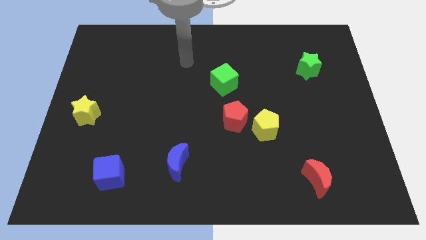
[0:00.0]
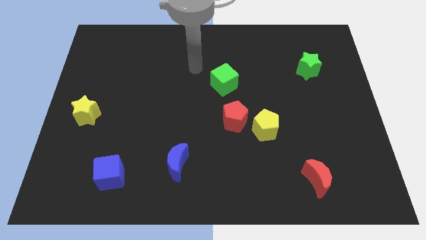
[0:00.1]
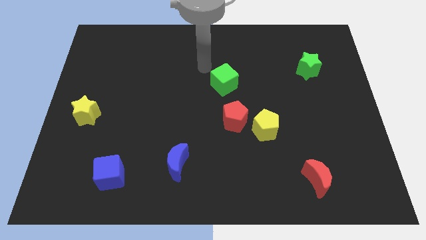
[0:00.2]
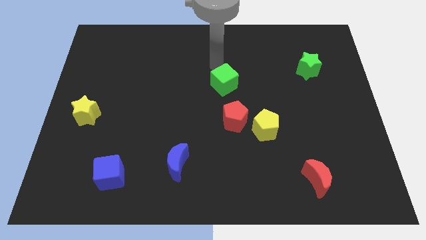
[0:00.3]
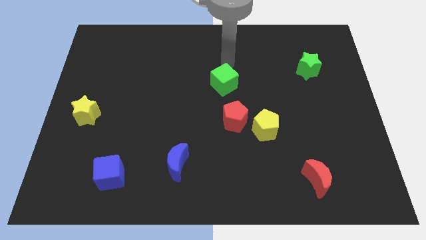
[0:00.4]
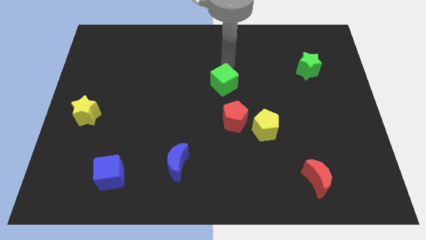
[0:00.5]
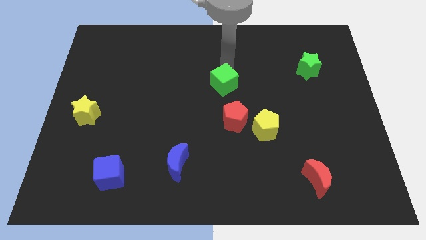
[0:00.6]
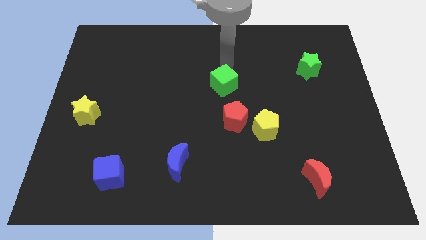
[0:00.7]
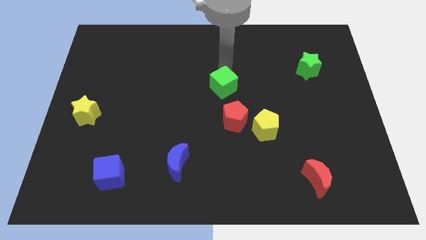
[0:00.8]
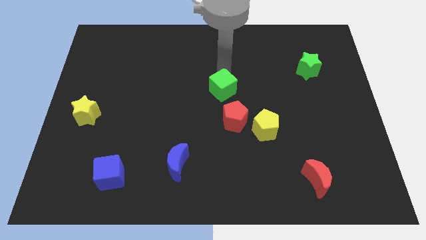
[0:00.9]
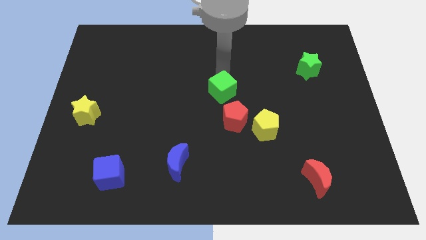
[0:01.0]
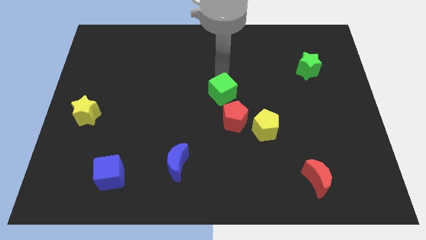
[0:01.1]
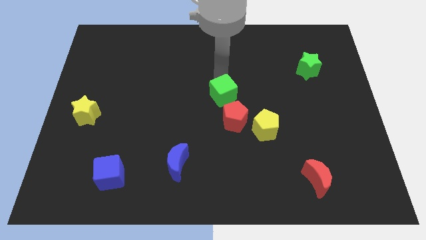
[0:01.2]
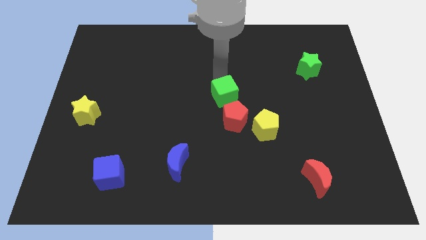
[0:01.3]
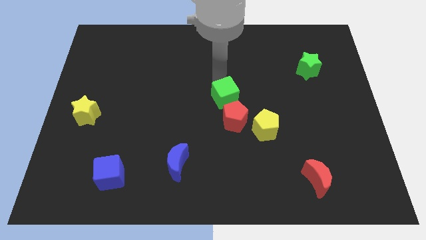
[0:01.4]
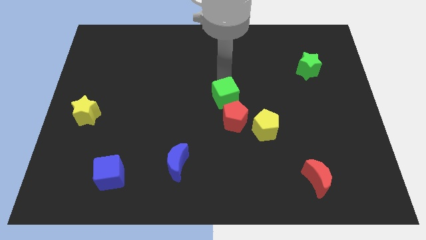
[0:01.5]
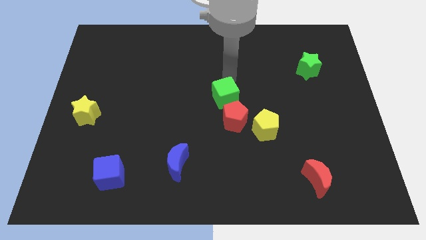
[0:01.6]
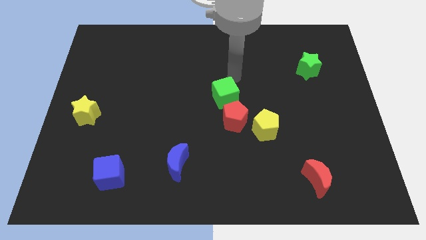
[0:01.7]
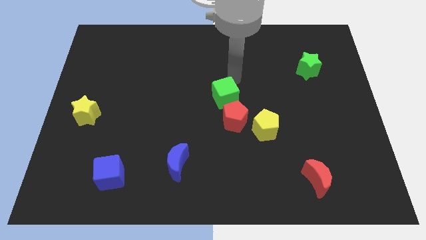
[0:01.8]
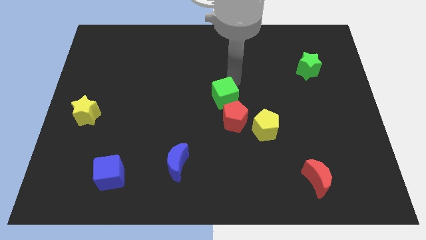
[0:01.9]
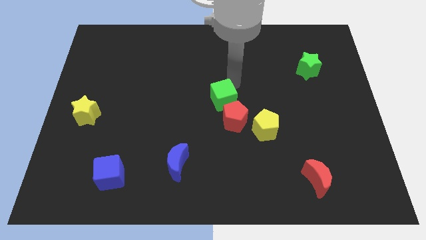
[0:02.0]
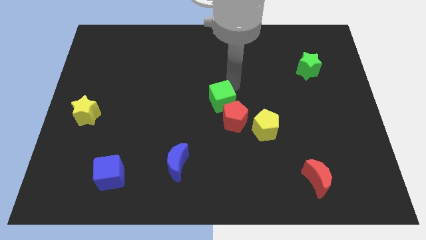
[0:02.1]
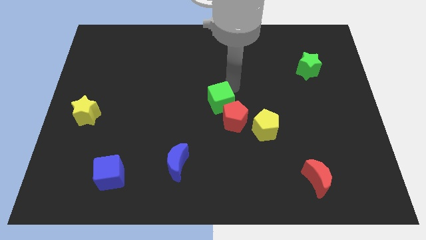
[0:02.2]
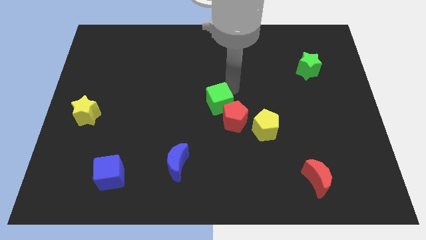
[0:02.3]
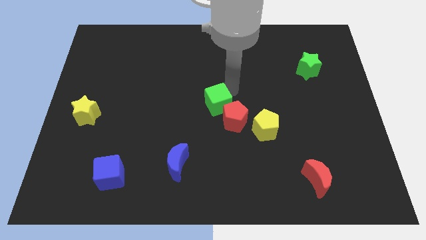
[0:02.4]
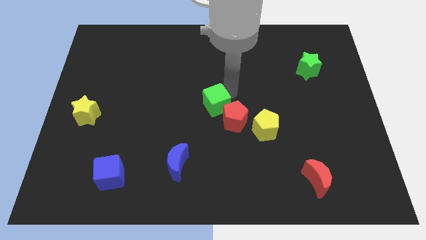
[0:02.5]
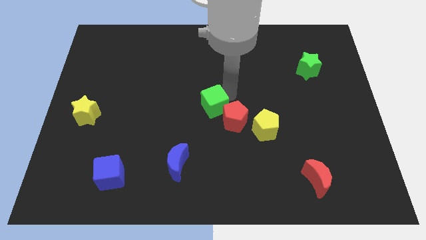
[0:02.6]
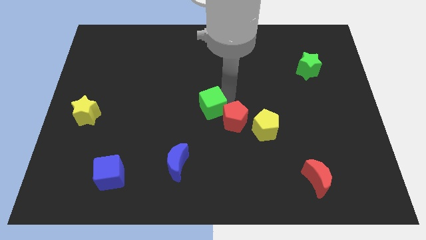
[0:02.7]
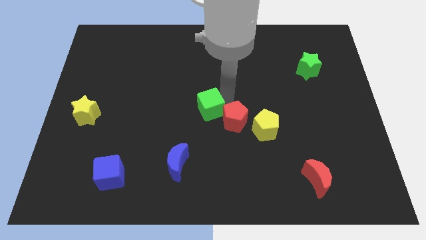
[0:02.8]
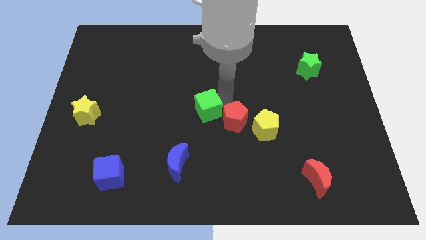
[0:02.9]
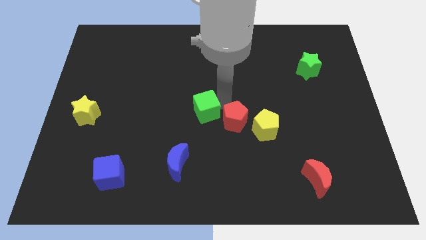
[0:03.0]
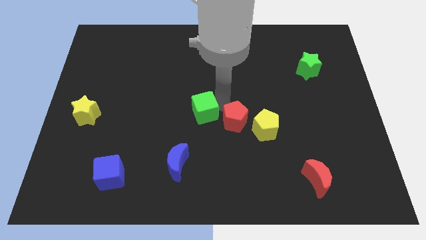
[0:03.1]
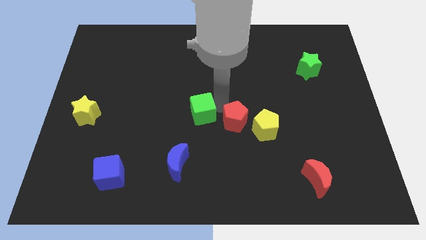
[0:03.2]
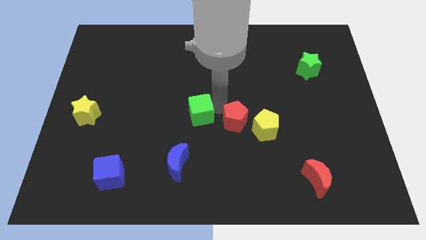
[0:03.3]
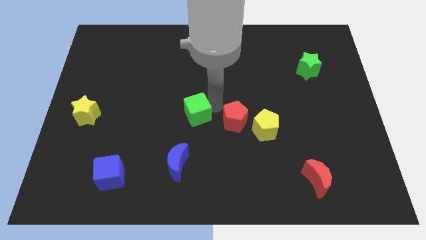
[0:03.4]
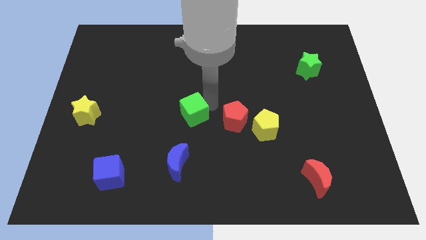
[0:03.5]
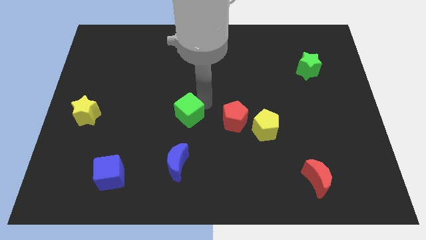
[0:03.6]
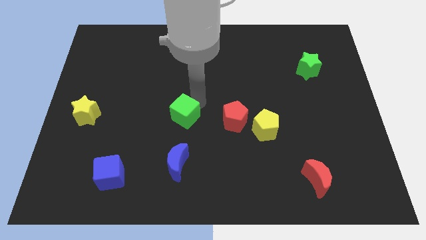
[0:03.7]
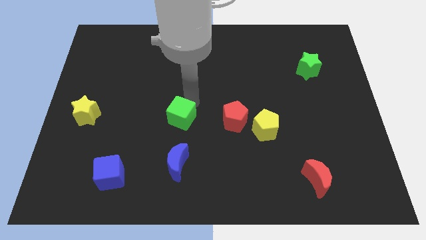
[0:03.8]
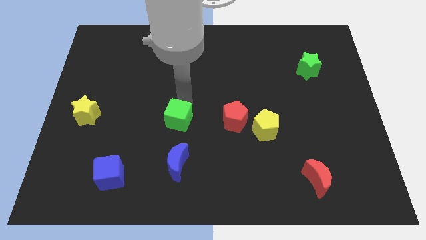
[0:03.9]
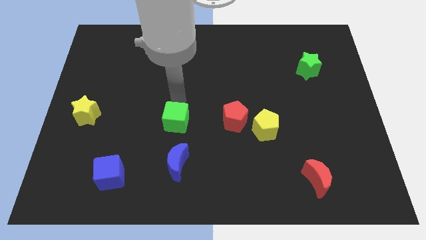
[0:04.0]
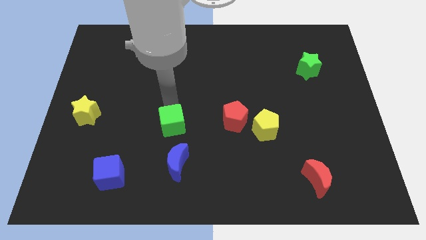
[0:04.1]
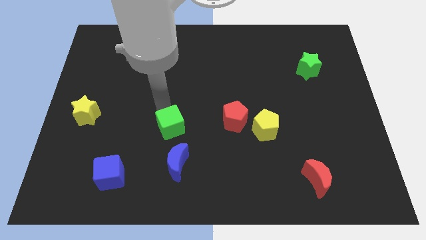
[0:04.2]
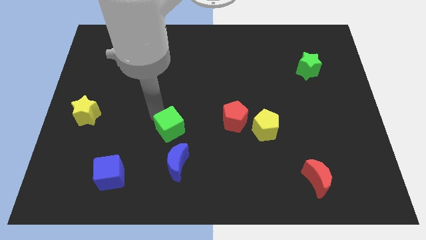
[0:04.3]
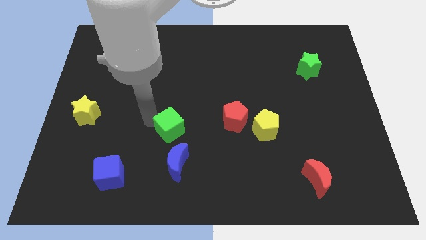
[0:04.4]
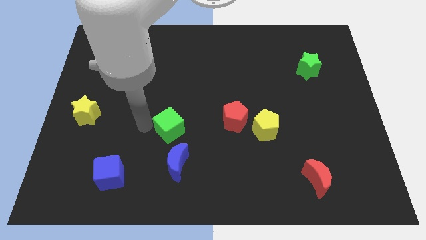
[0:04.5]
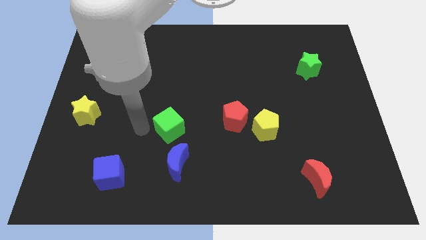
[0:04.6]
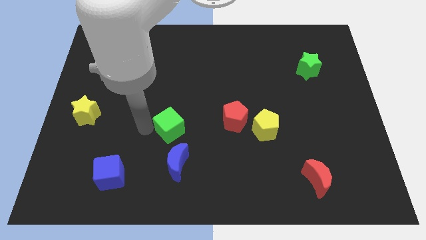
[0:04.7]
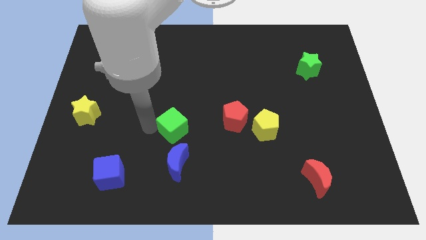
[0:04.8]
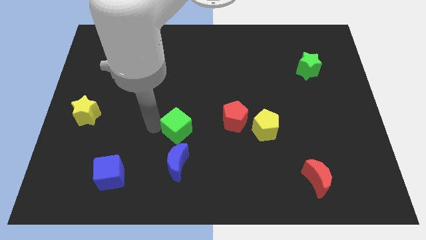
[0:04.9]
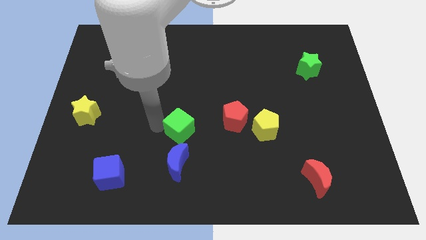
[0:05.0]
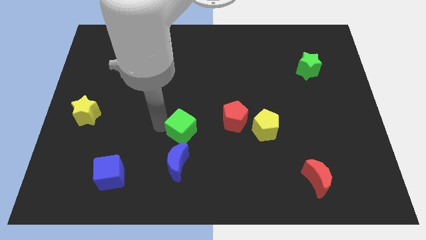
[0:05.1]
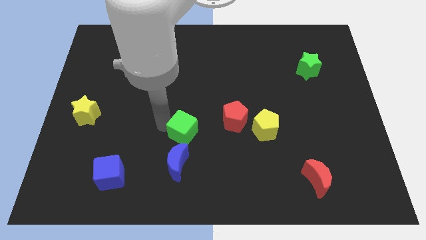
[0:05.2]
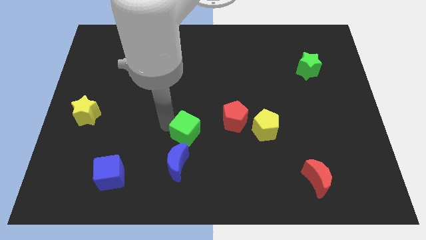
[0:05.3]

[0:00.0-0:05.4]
push the green cube to the top right of the blue moon

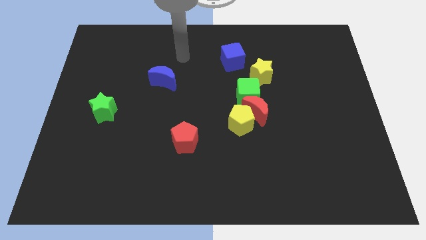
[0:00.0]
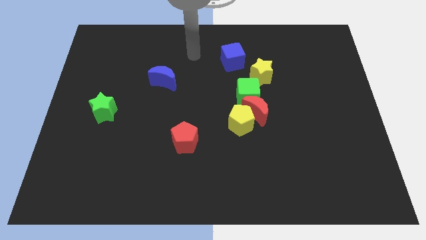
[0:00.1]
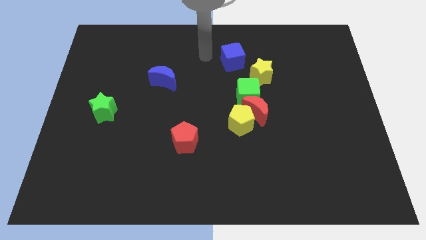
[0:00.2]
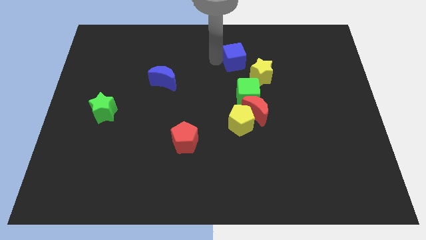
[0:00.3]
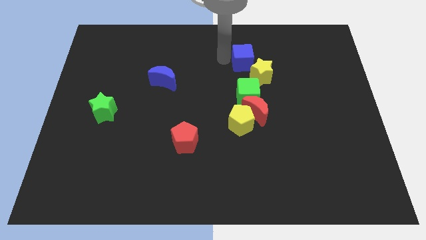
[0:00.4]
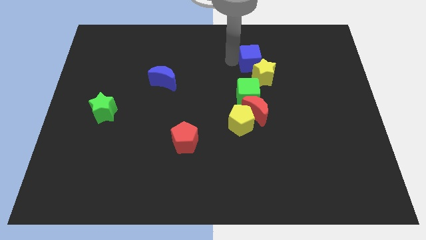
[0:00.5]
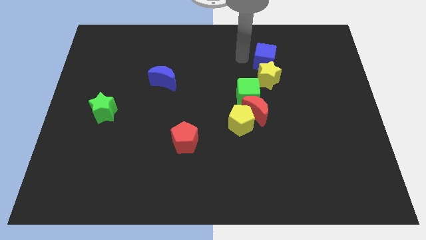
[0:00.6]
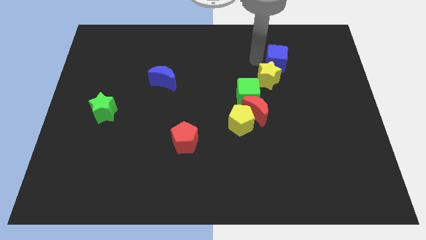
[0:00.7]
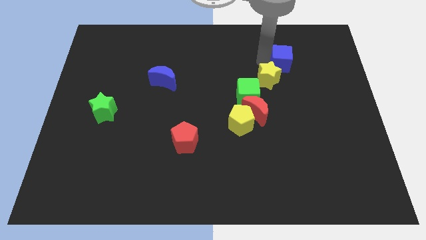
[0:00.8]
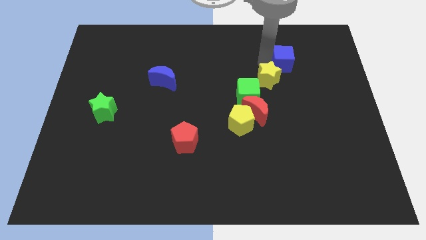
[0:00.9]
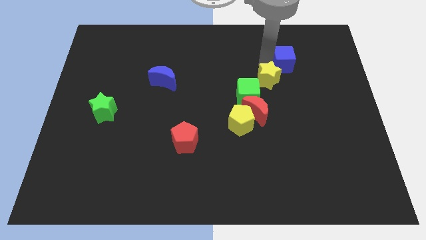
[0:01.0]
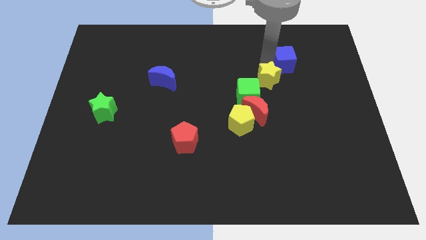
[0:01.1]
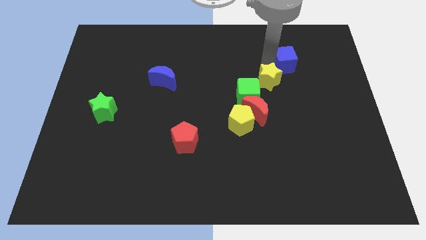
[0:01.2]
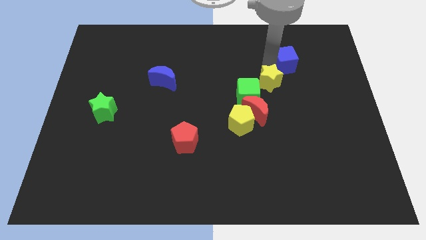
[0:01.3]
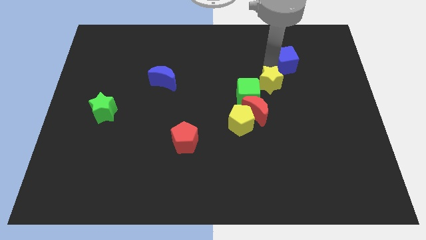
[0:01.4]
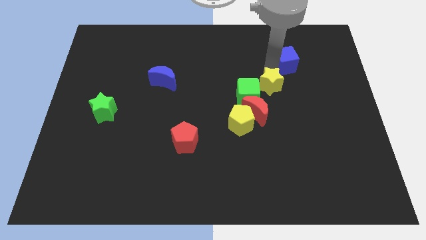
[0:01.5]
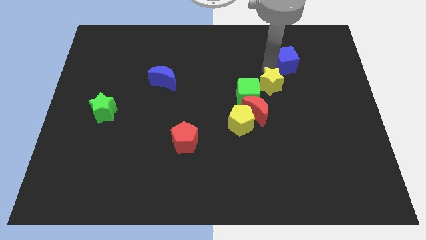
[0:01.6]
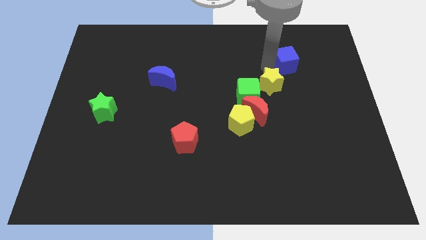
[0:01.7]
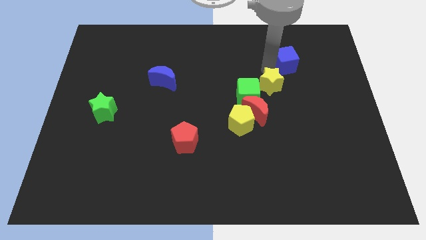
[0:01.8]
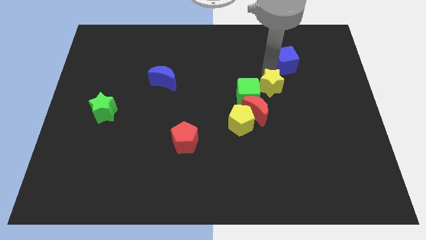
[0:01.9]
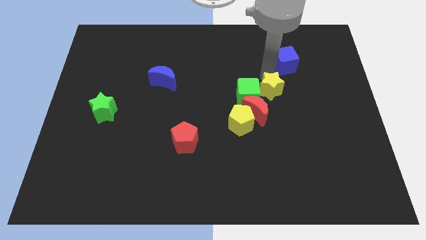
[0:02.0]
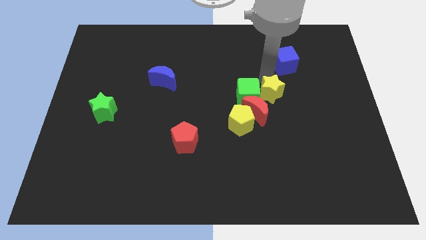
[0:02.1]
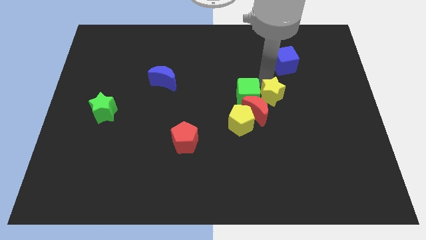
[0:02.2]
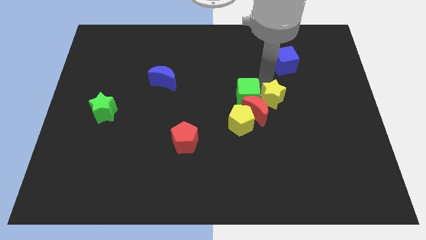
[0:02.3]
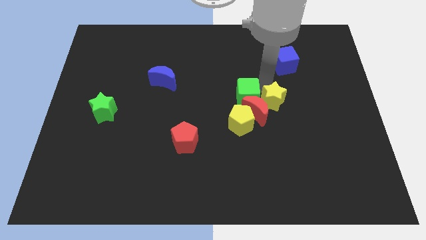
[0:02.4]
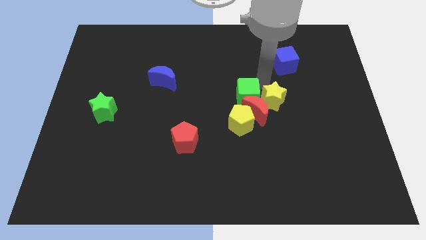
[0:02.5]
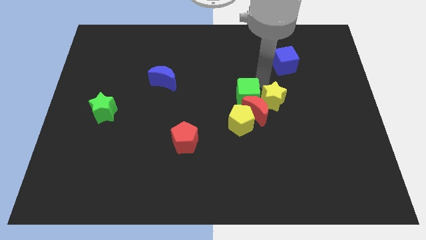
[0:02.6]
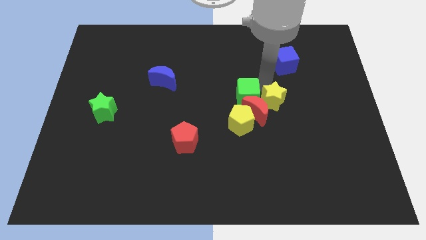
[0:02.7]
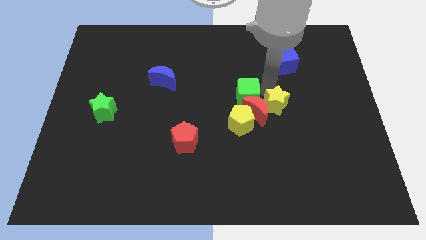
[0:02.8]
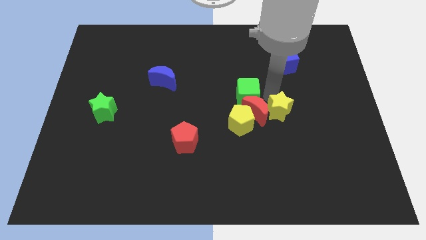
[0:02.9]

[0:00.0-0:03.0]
move the yellow star to the right of the yellow pentagon
